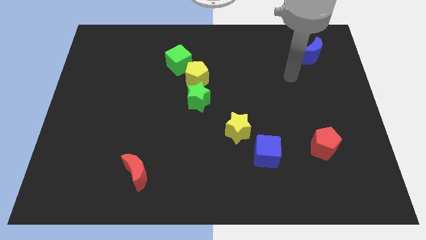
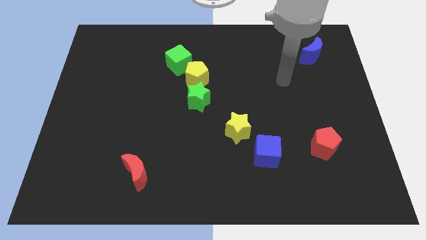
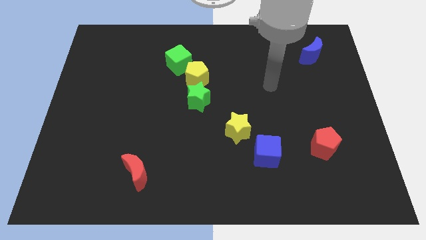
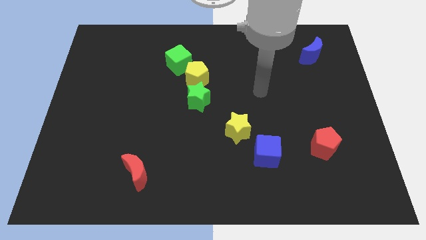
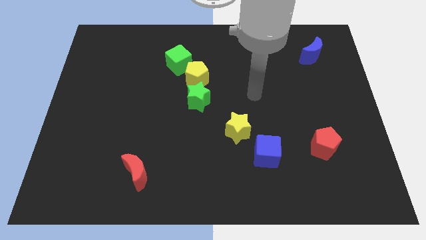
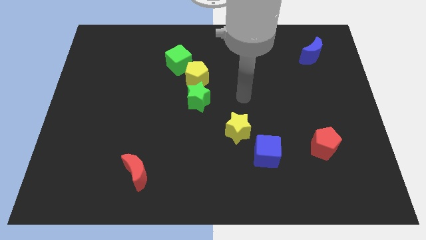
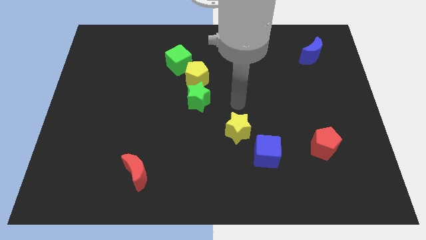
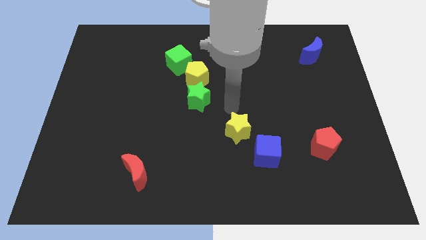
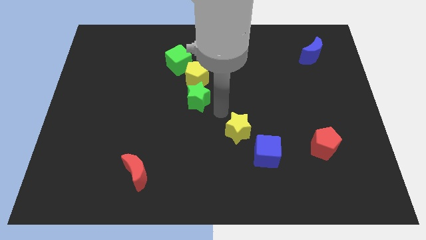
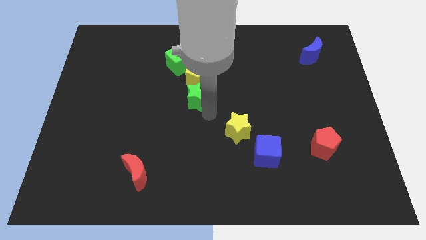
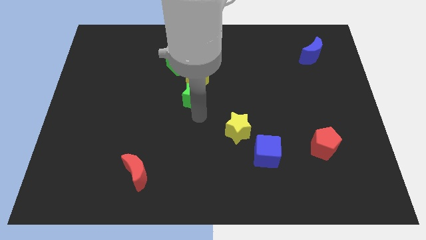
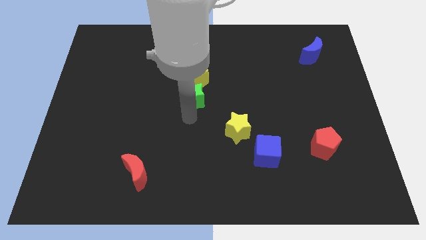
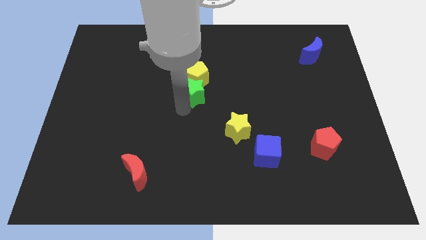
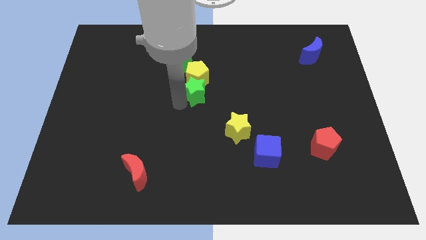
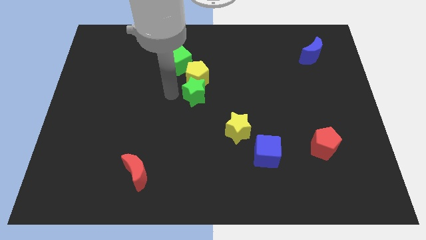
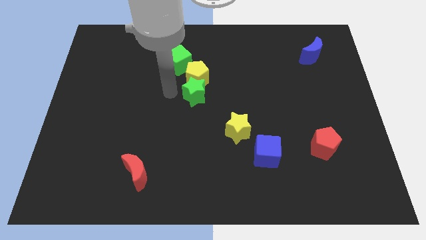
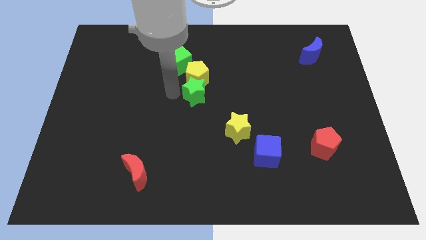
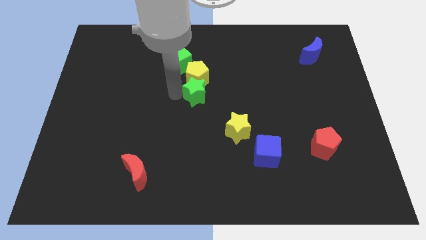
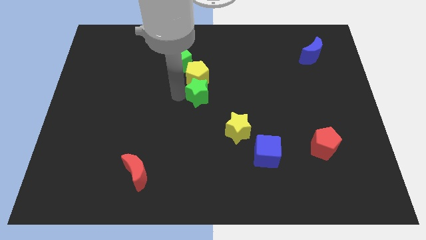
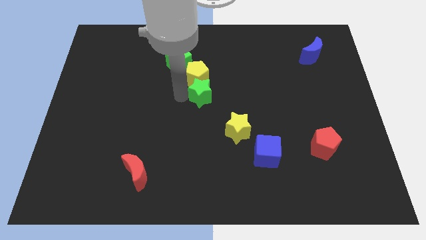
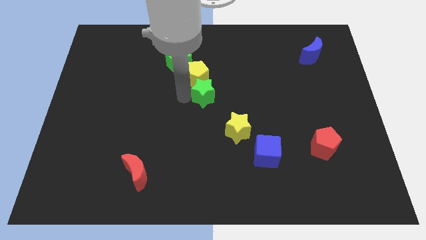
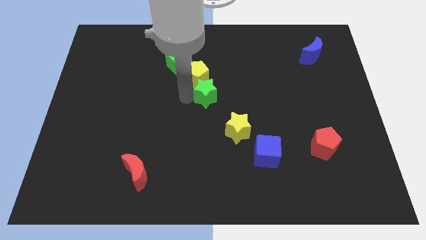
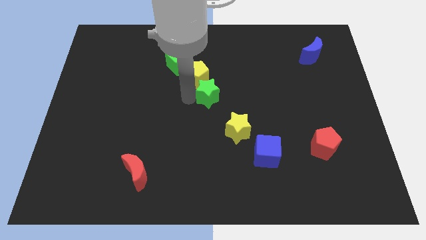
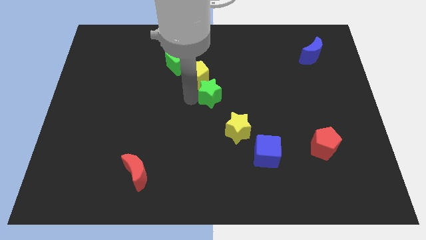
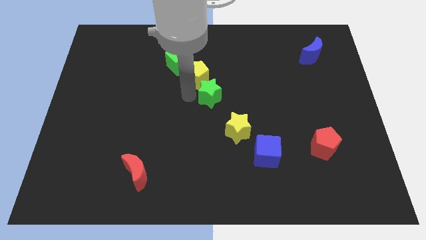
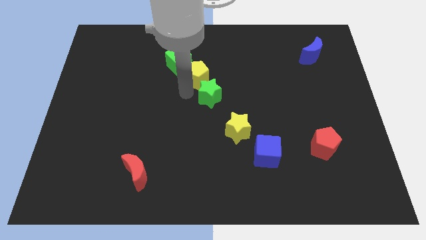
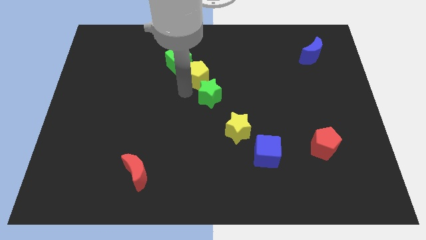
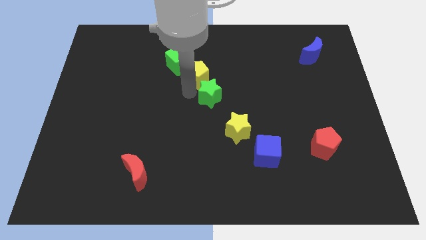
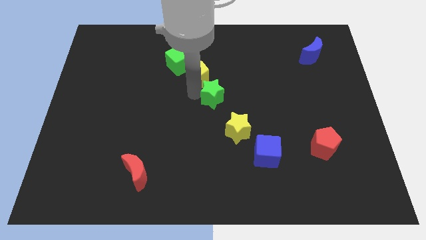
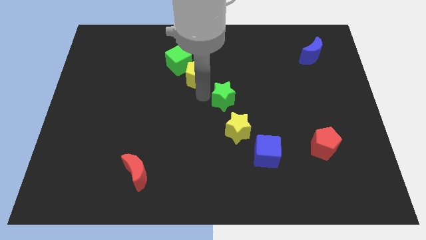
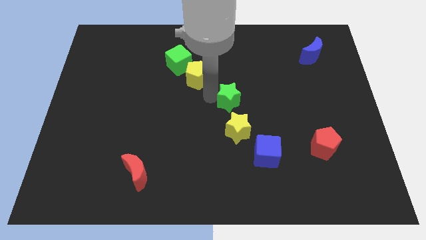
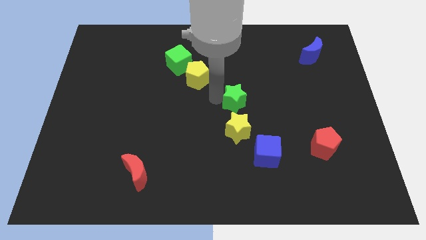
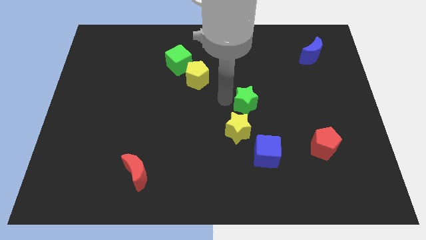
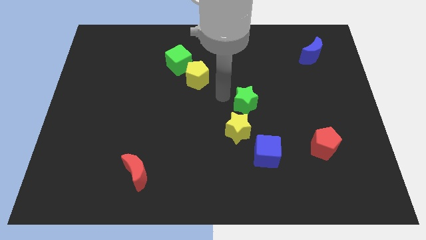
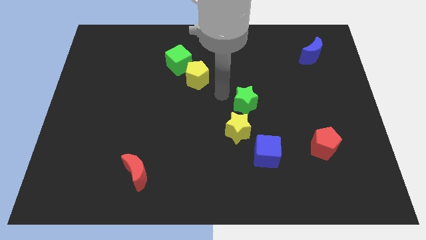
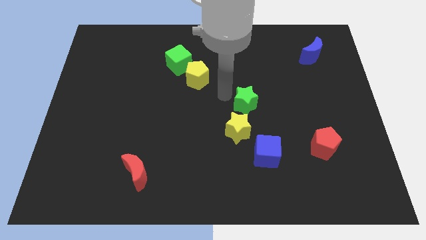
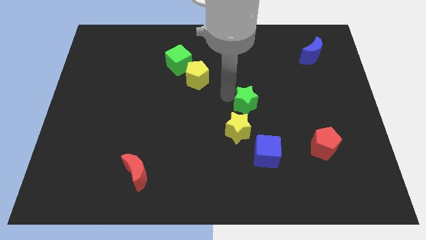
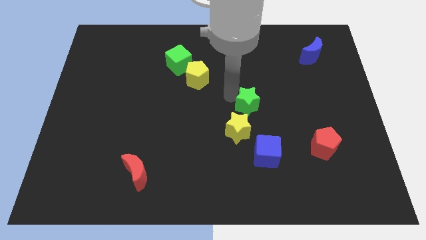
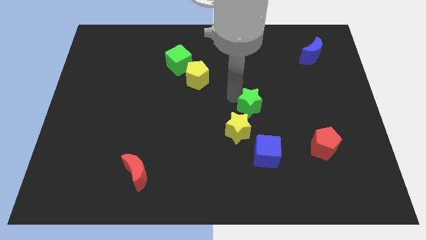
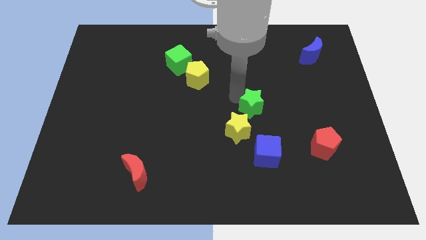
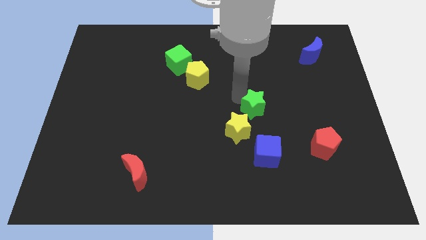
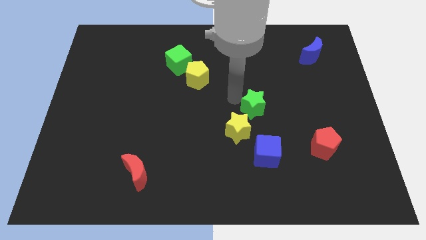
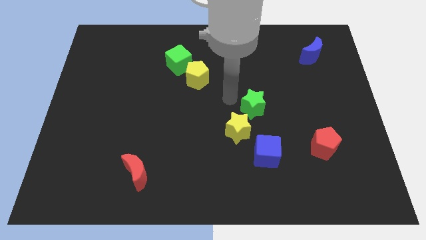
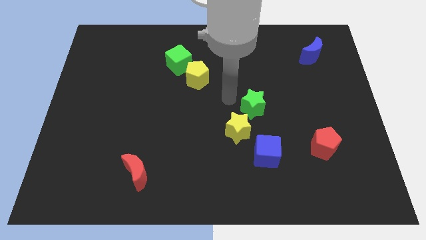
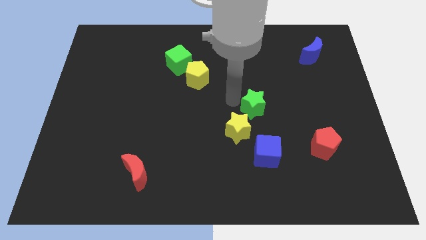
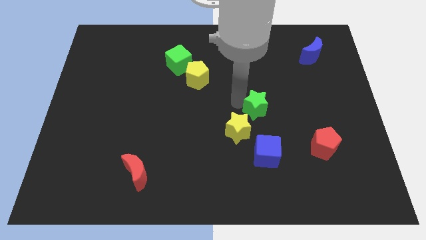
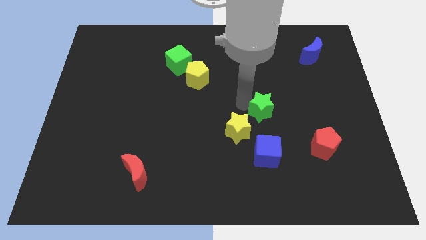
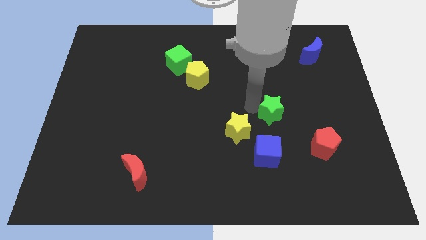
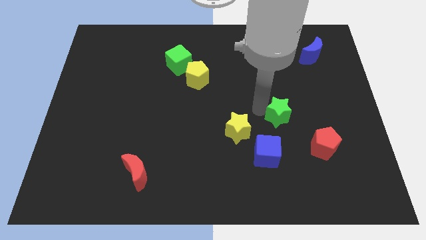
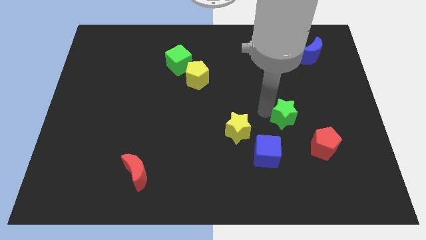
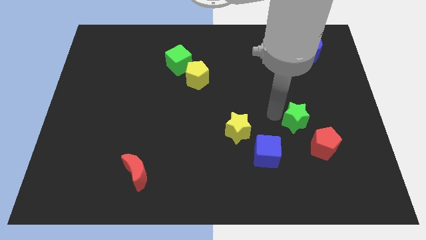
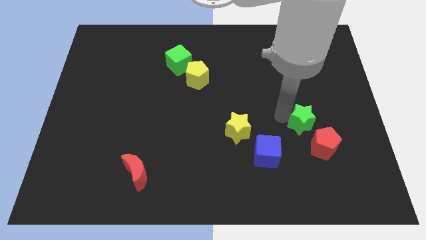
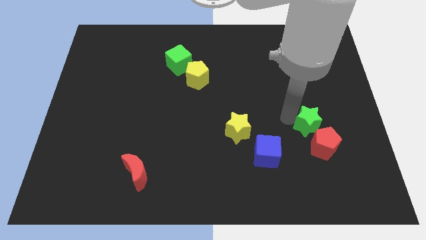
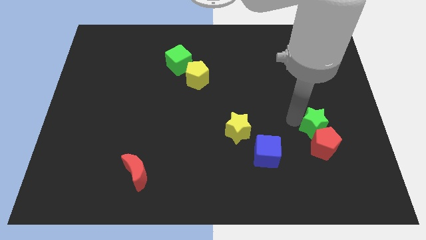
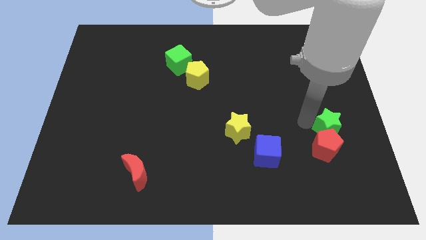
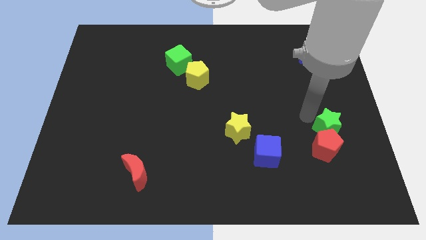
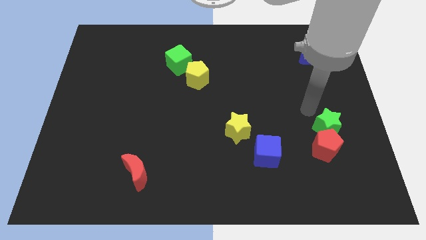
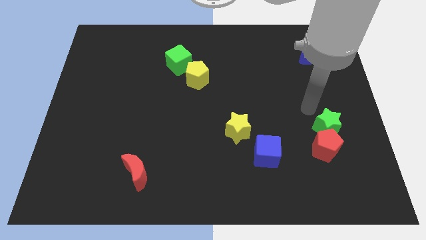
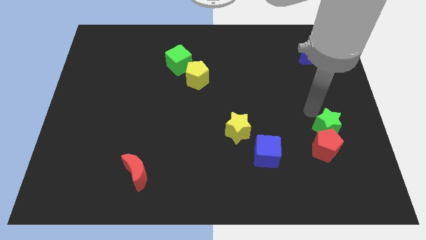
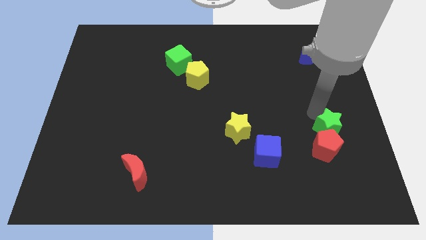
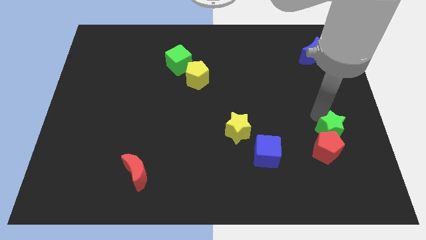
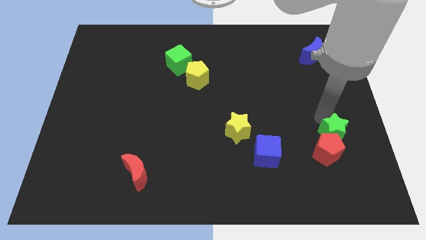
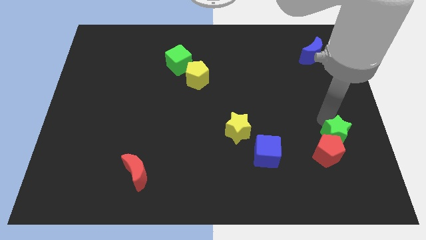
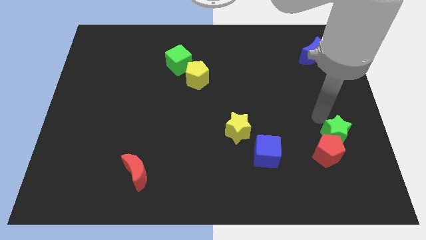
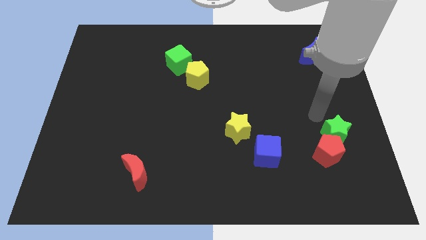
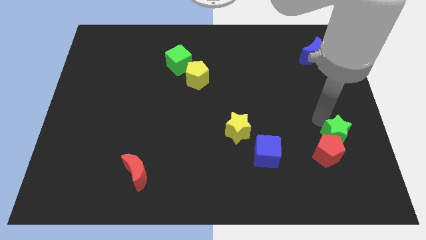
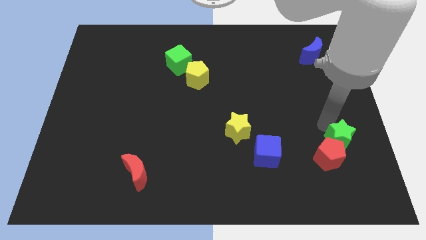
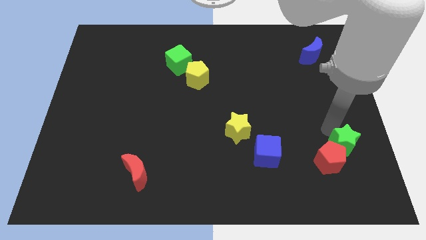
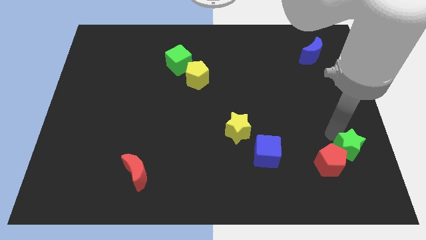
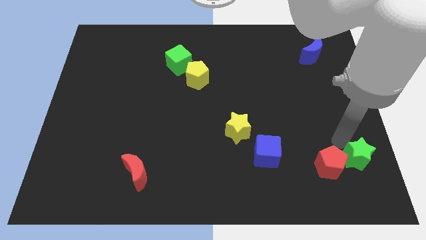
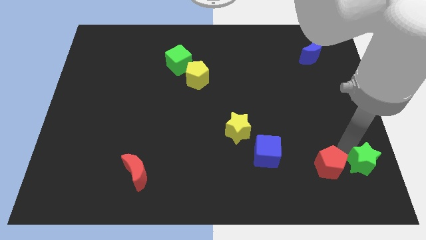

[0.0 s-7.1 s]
slide the green star to the bottom right of the board
